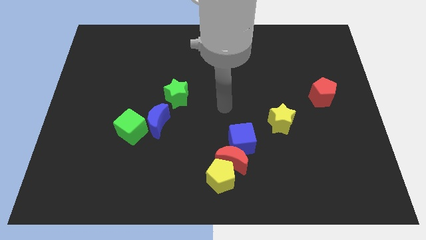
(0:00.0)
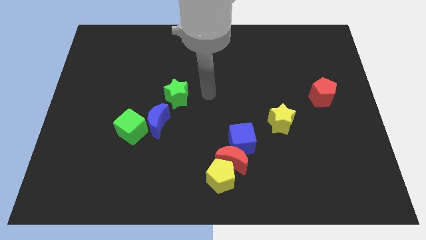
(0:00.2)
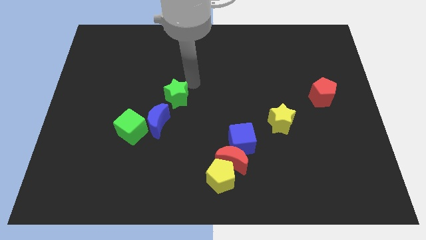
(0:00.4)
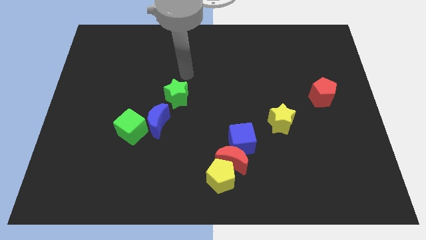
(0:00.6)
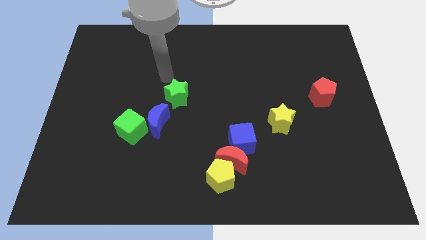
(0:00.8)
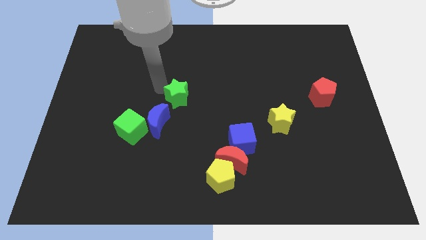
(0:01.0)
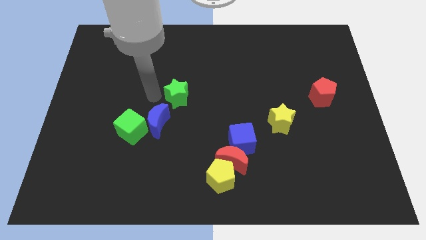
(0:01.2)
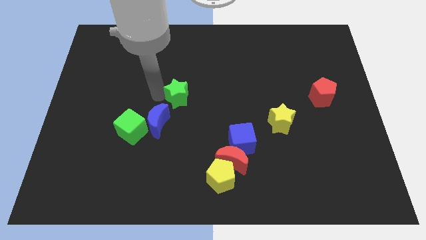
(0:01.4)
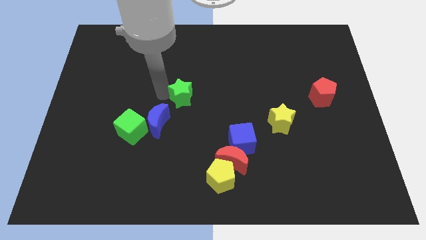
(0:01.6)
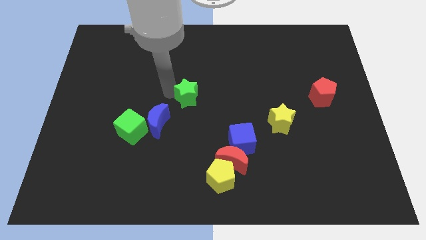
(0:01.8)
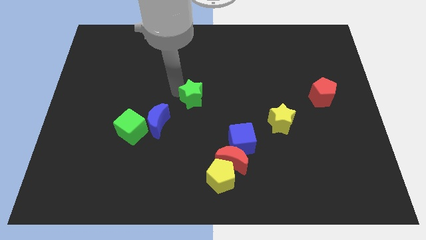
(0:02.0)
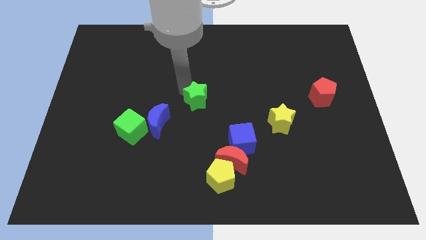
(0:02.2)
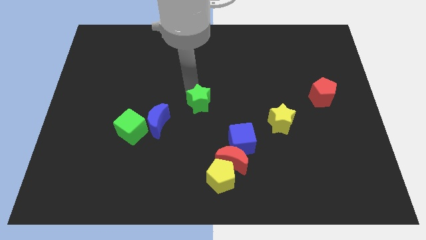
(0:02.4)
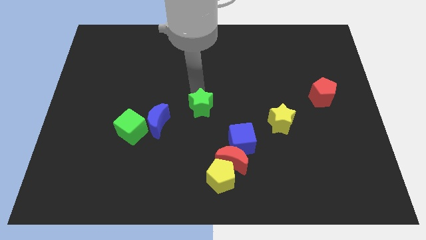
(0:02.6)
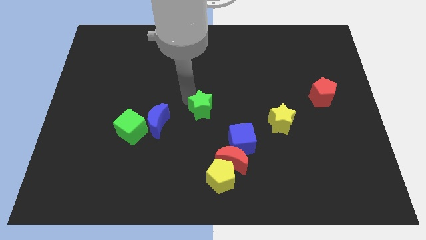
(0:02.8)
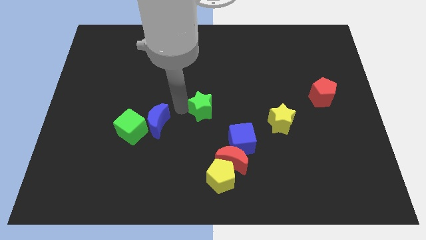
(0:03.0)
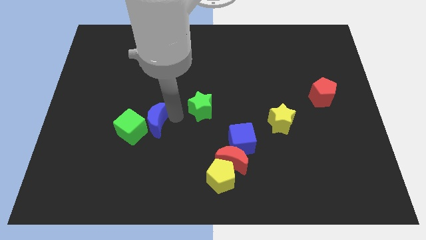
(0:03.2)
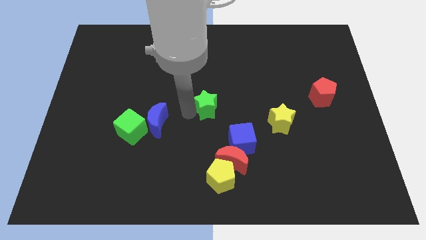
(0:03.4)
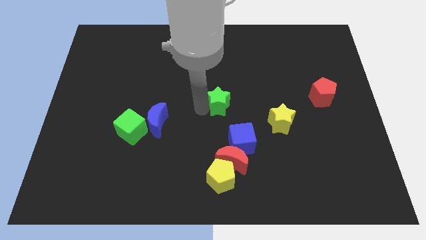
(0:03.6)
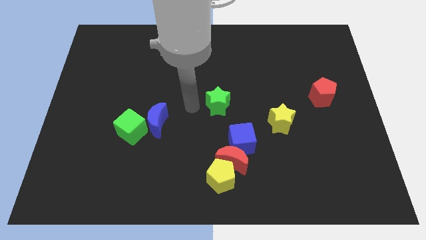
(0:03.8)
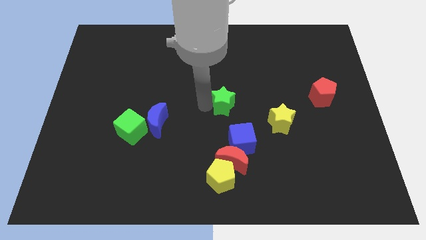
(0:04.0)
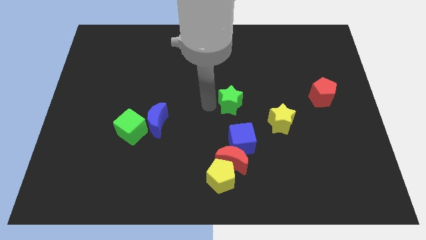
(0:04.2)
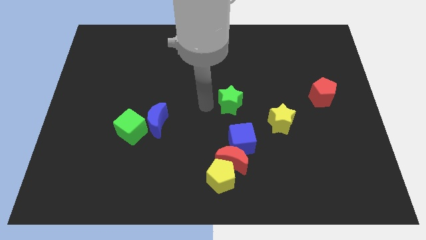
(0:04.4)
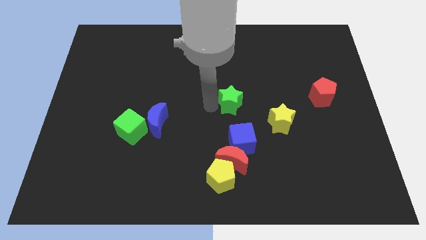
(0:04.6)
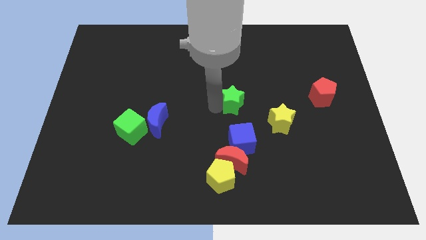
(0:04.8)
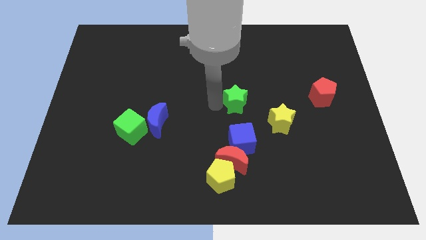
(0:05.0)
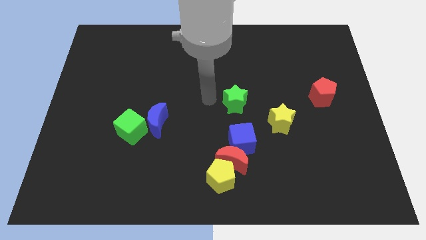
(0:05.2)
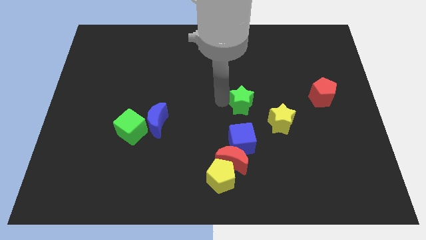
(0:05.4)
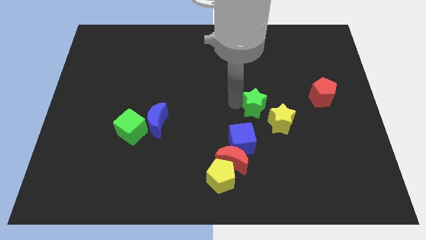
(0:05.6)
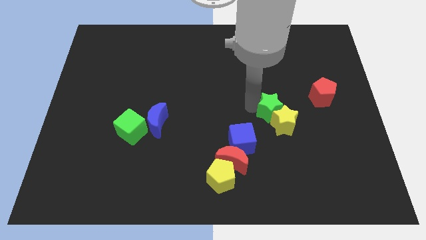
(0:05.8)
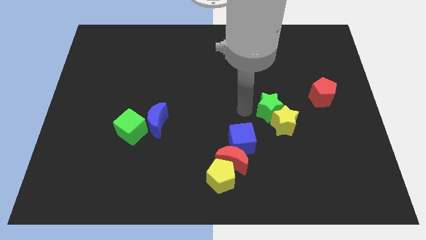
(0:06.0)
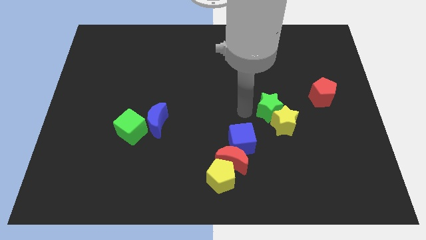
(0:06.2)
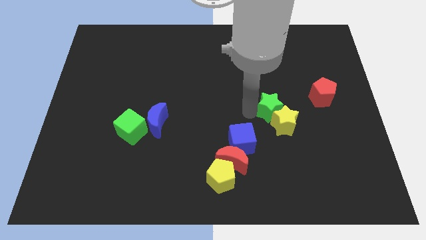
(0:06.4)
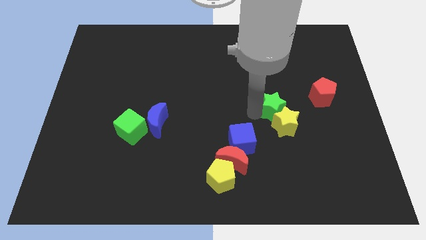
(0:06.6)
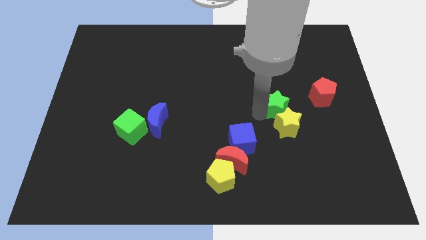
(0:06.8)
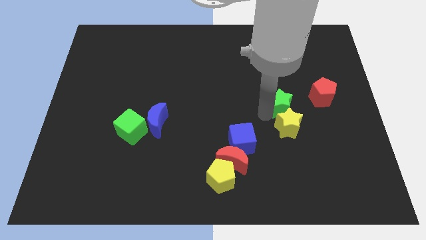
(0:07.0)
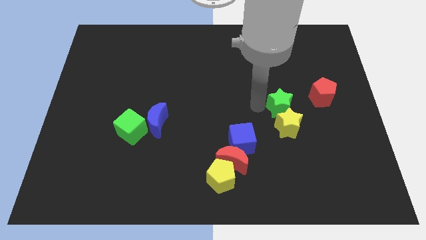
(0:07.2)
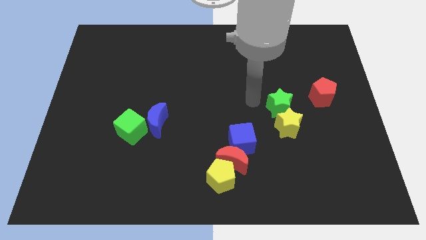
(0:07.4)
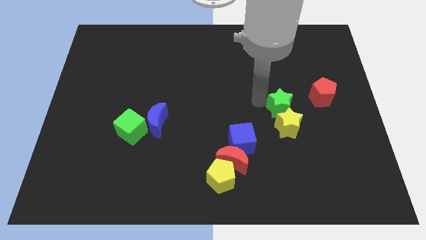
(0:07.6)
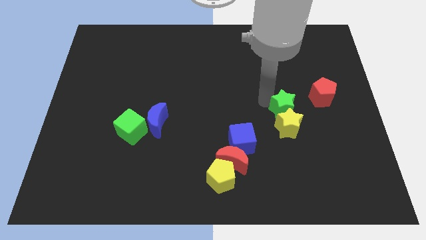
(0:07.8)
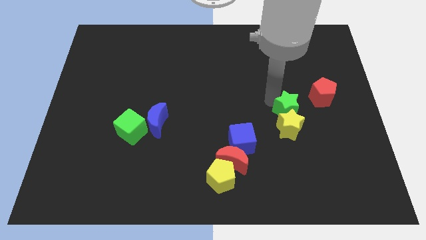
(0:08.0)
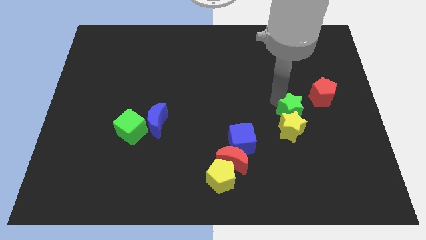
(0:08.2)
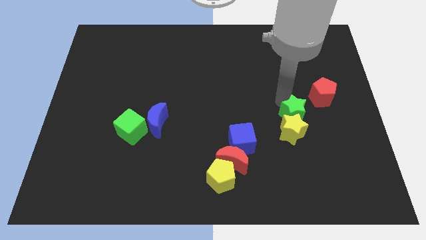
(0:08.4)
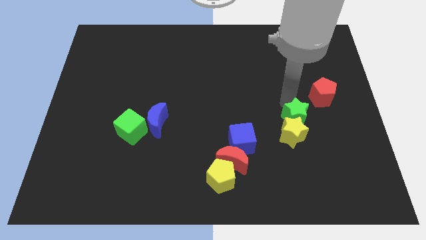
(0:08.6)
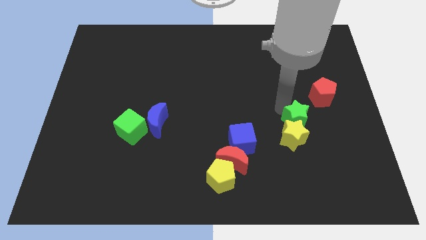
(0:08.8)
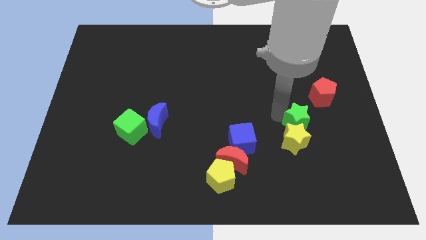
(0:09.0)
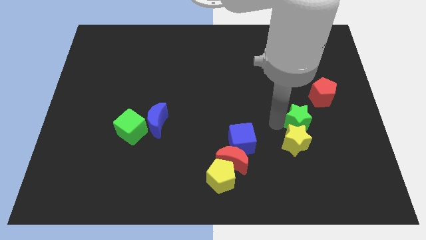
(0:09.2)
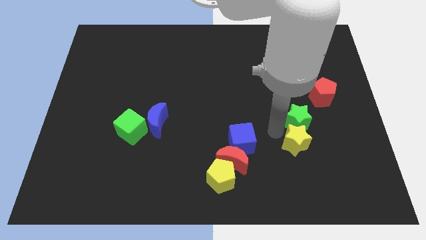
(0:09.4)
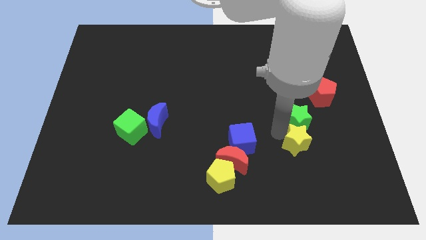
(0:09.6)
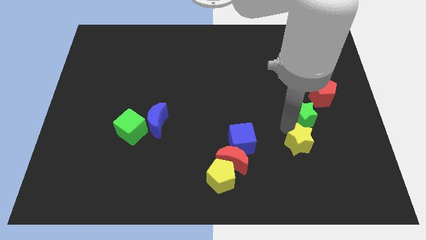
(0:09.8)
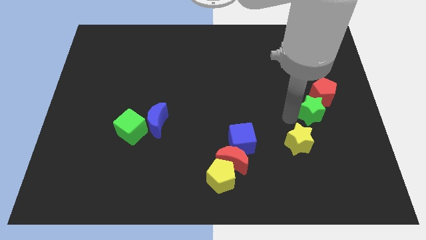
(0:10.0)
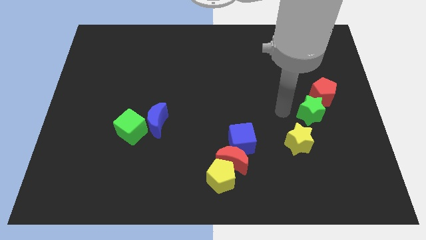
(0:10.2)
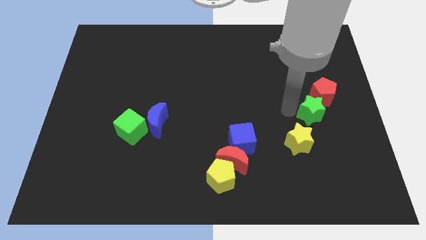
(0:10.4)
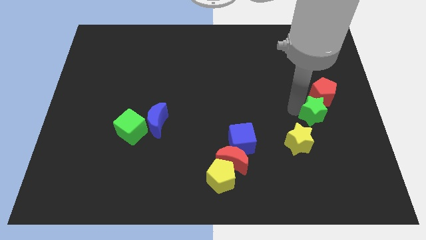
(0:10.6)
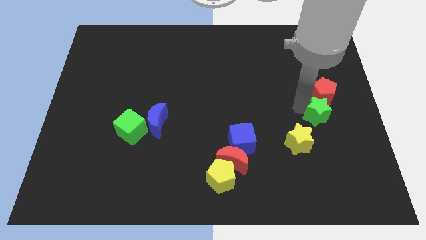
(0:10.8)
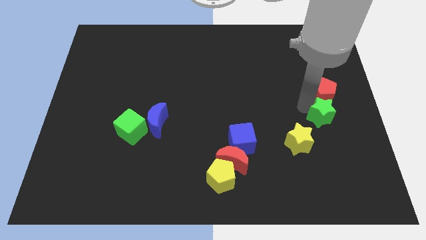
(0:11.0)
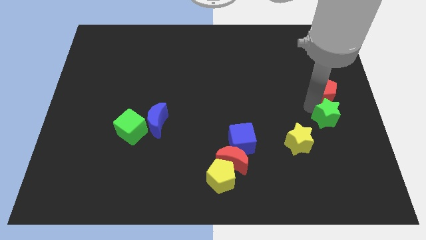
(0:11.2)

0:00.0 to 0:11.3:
move the green star to the right side of the board

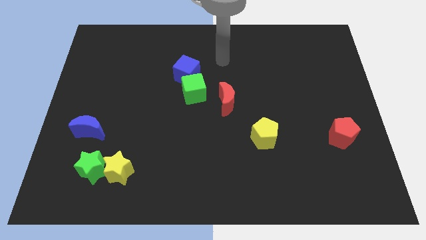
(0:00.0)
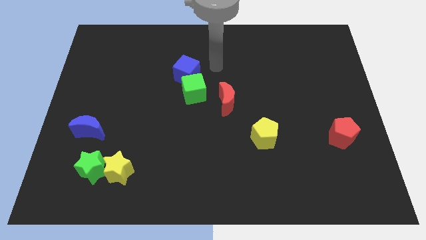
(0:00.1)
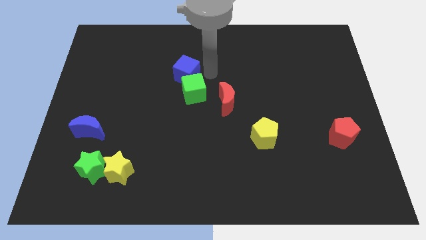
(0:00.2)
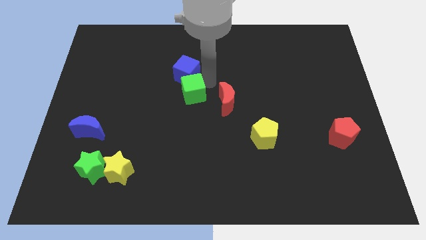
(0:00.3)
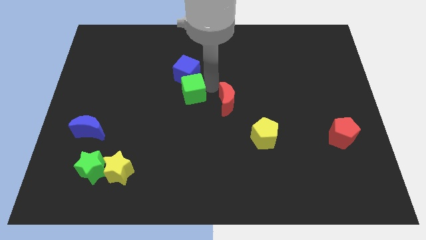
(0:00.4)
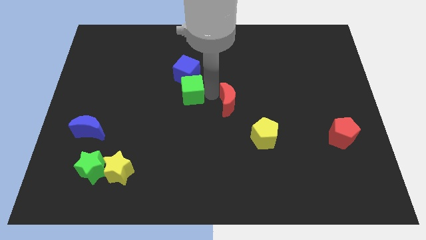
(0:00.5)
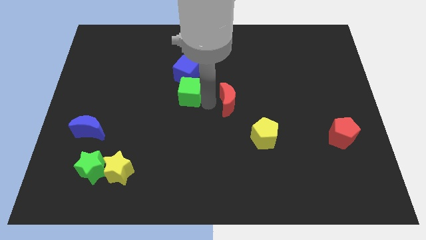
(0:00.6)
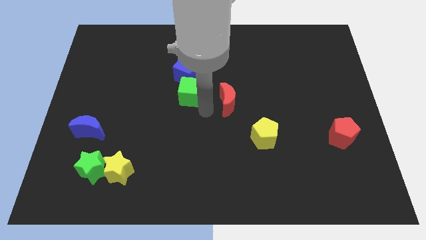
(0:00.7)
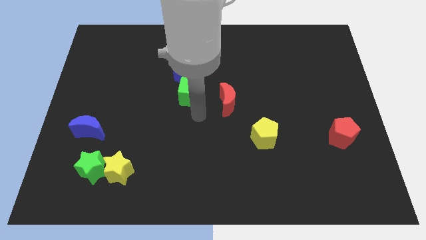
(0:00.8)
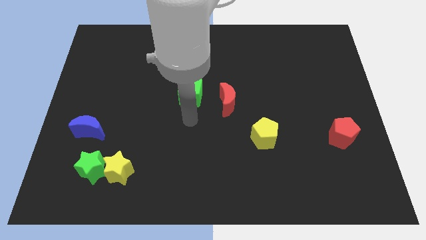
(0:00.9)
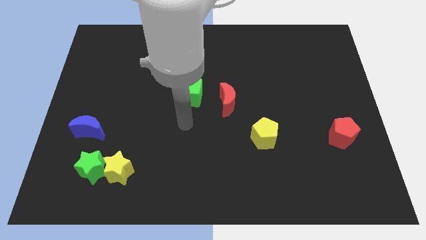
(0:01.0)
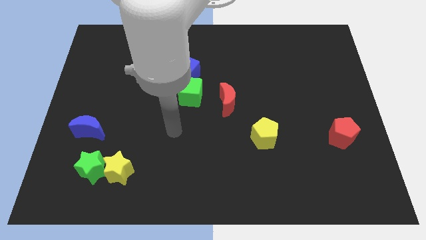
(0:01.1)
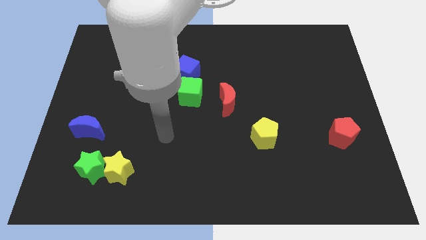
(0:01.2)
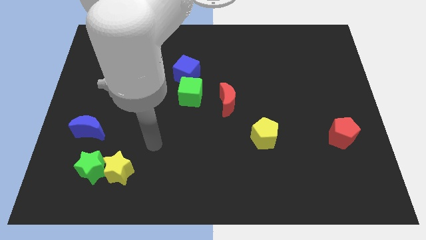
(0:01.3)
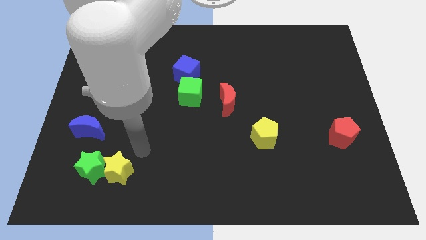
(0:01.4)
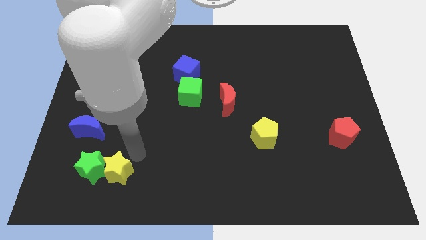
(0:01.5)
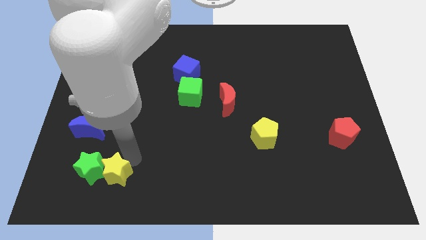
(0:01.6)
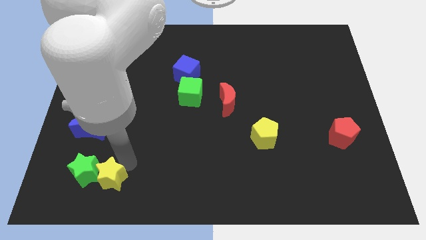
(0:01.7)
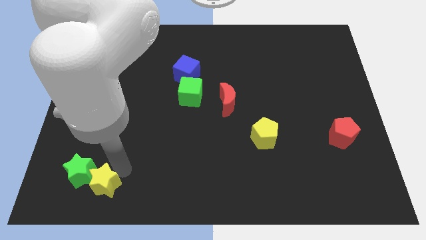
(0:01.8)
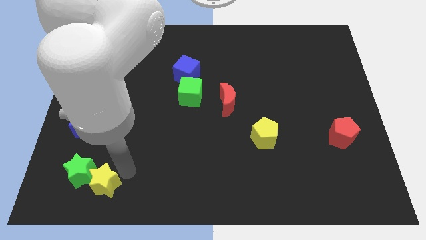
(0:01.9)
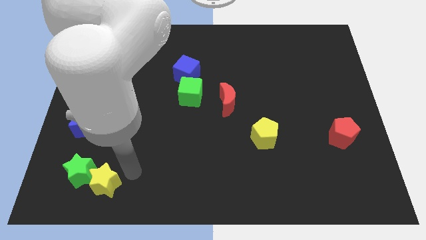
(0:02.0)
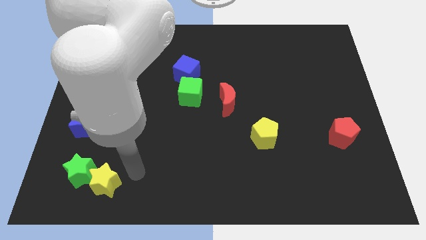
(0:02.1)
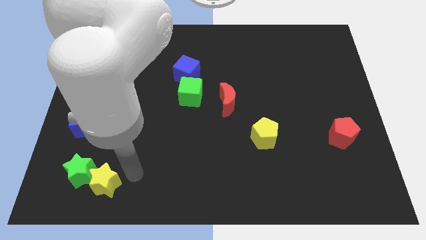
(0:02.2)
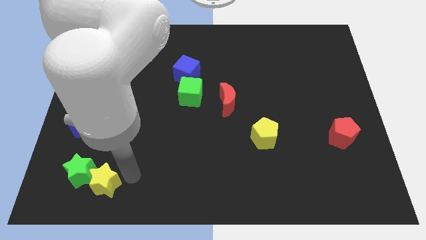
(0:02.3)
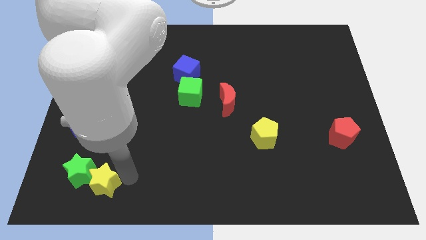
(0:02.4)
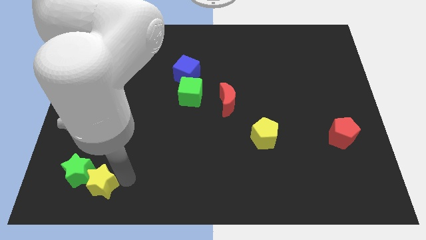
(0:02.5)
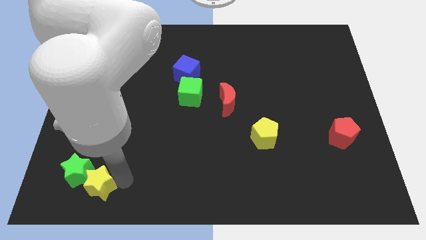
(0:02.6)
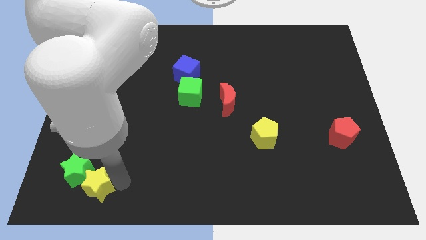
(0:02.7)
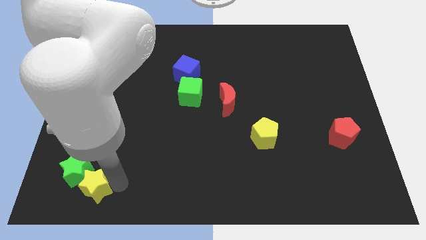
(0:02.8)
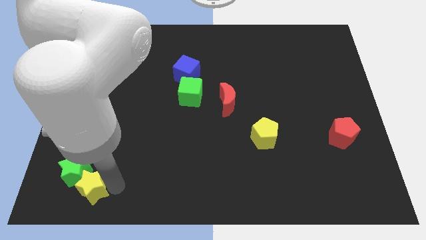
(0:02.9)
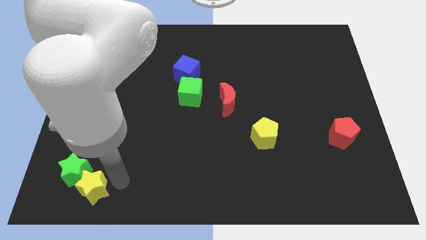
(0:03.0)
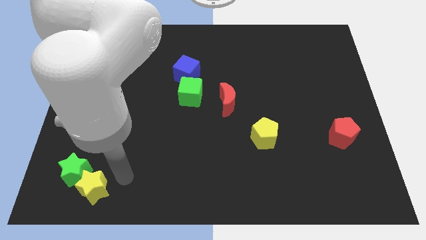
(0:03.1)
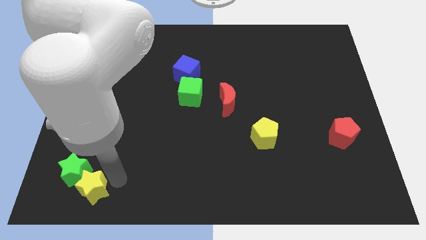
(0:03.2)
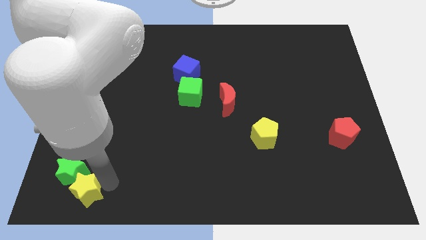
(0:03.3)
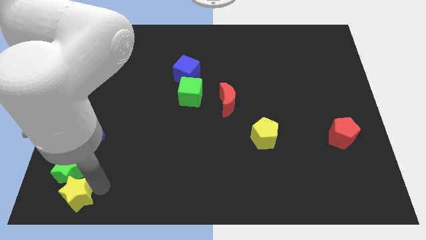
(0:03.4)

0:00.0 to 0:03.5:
slide the yellow star to the bottom left corner
